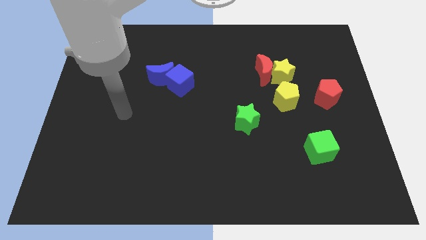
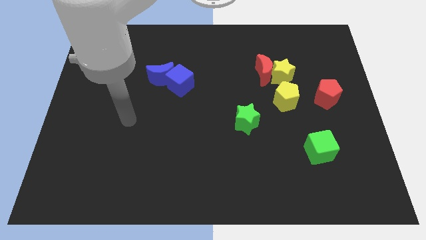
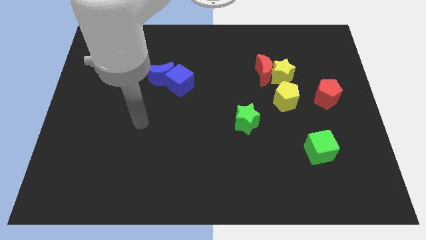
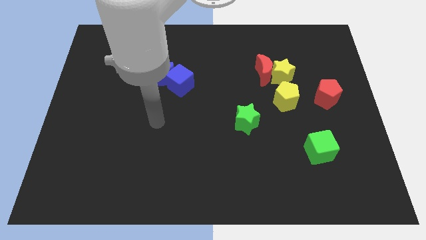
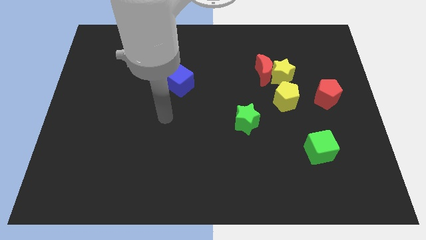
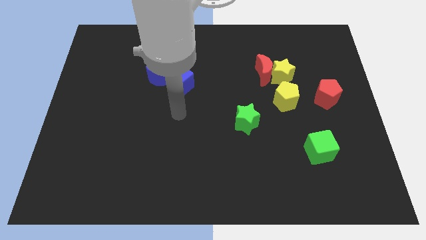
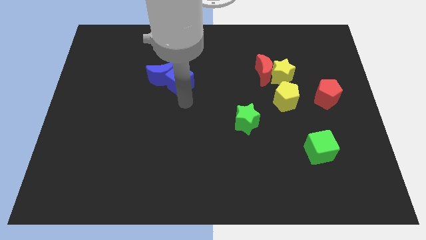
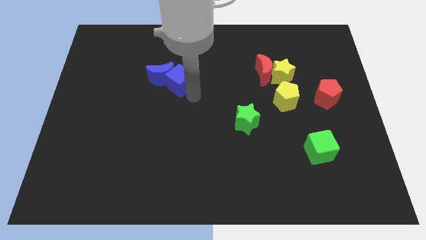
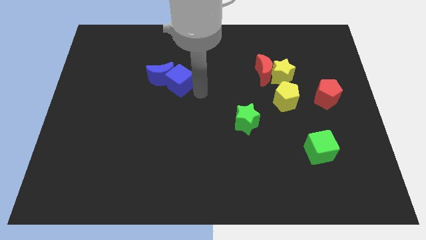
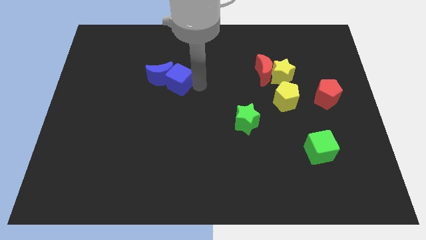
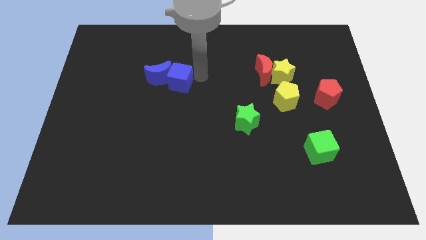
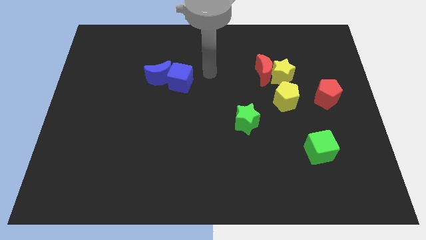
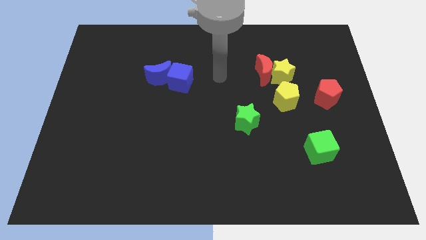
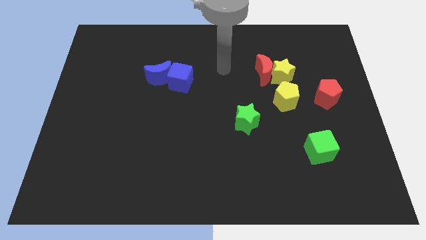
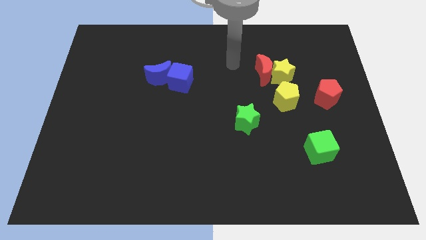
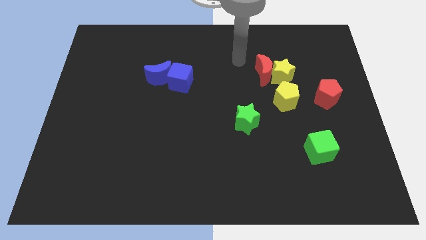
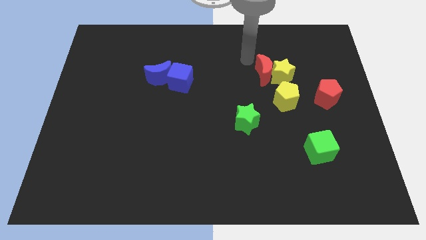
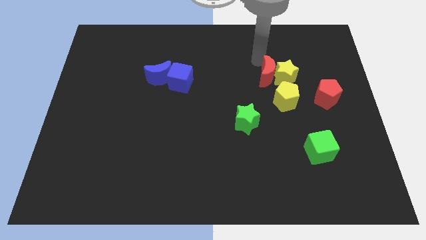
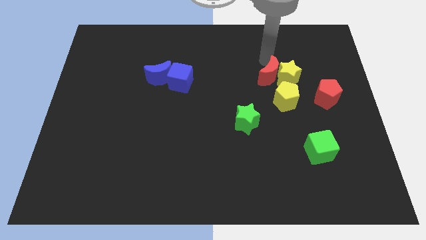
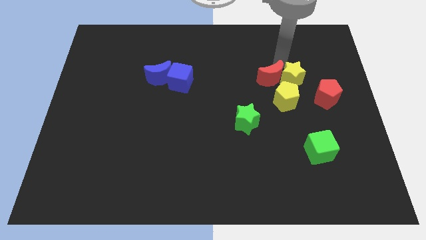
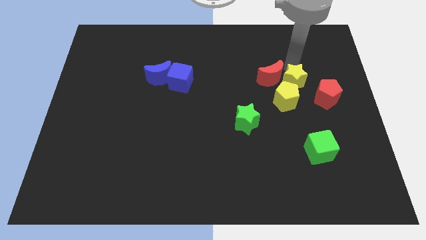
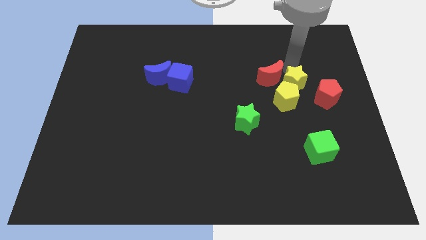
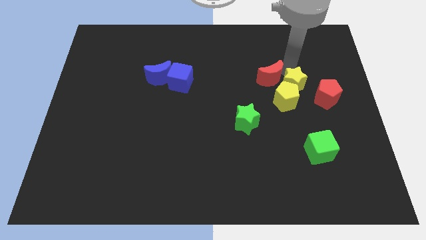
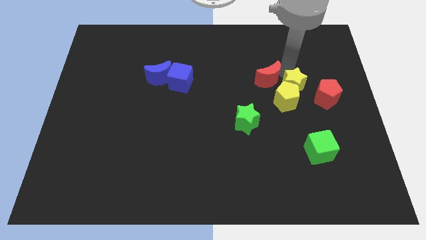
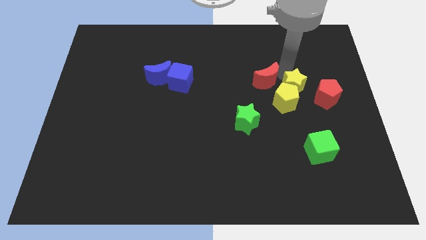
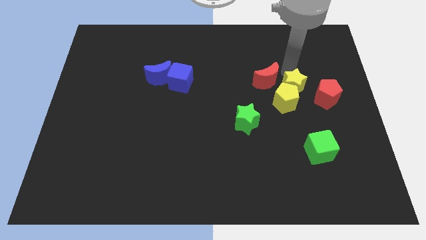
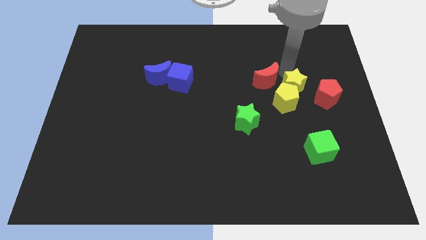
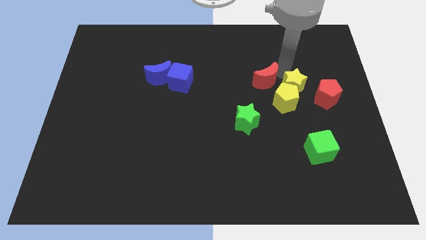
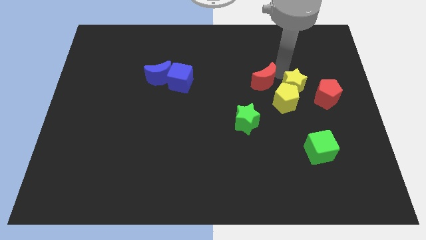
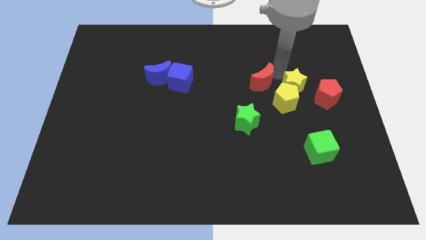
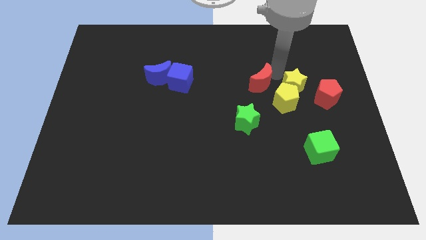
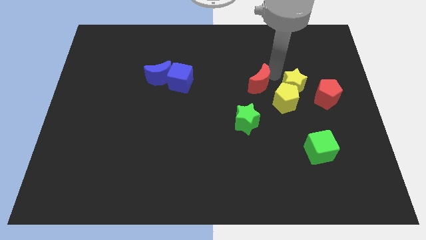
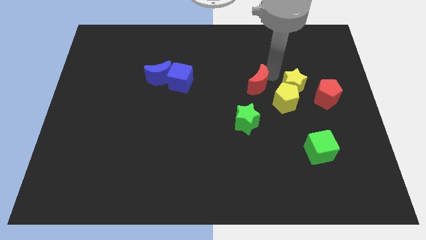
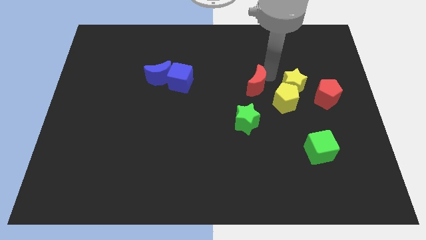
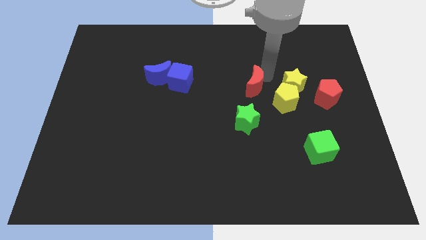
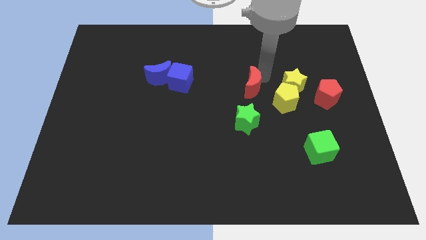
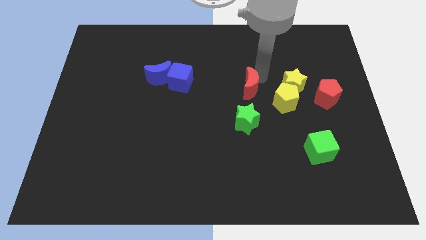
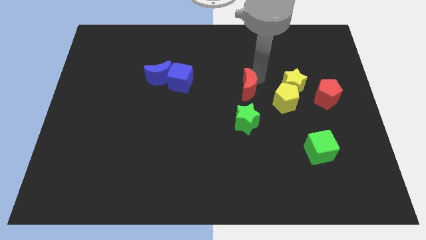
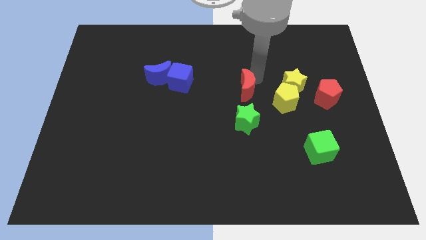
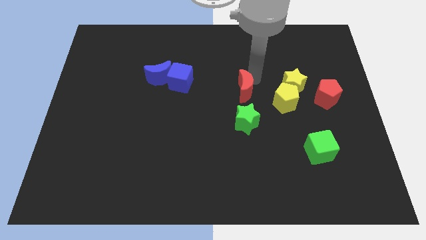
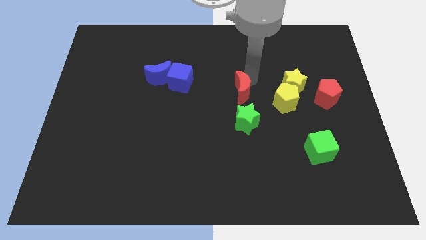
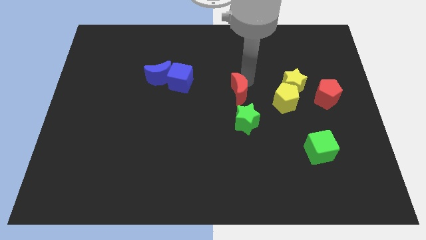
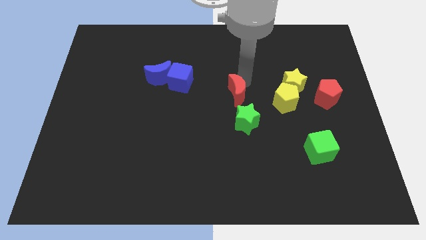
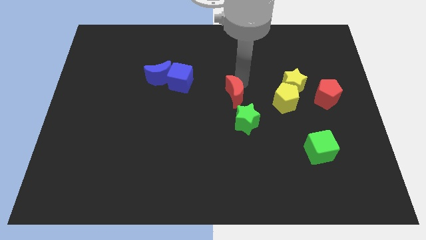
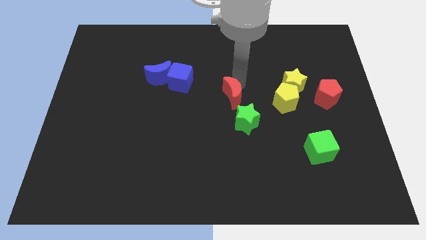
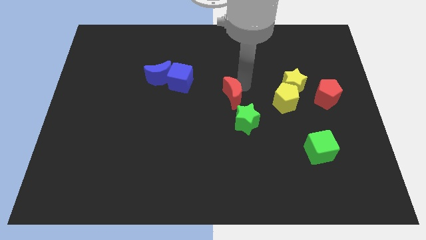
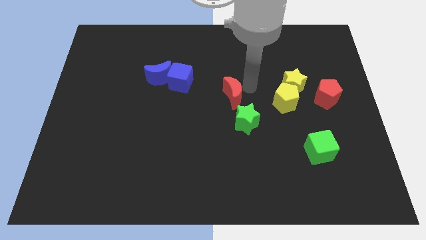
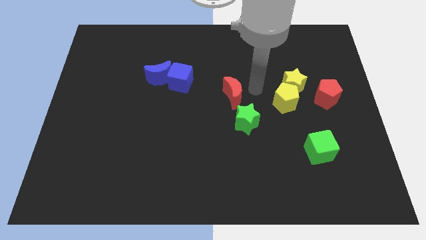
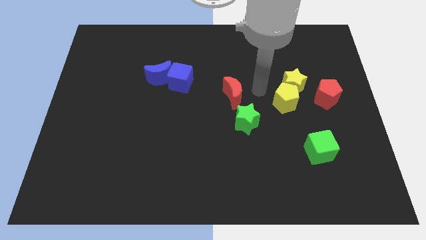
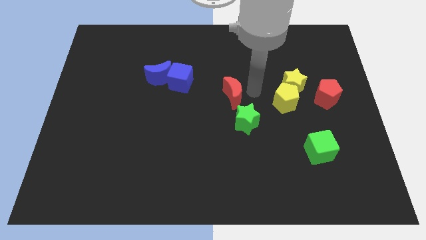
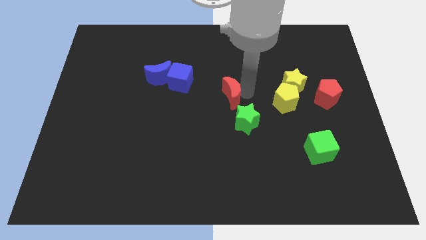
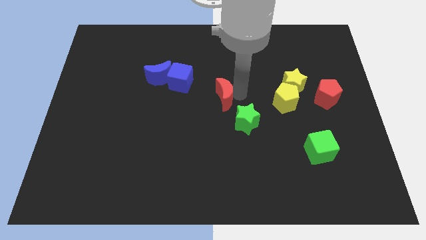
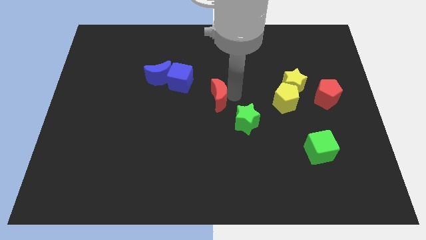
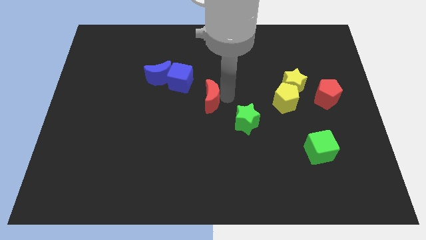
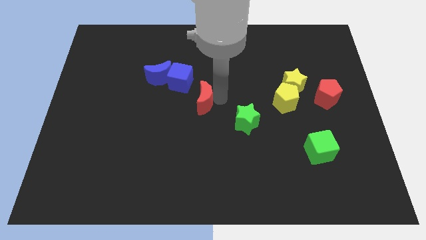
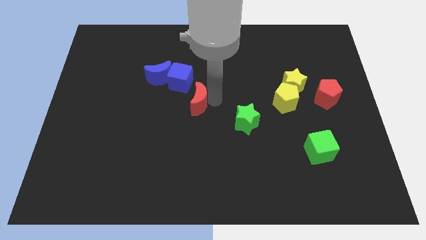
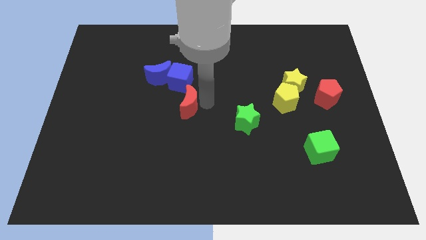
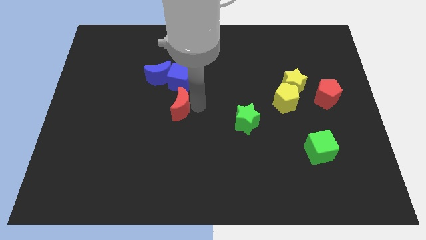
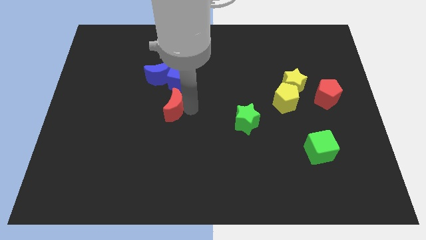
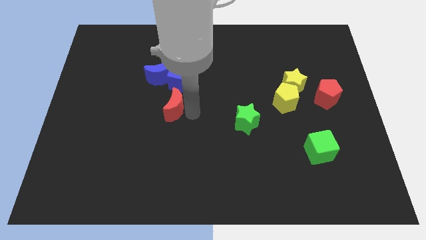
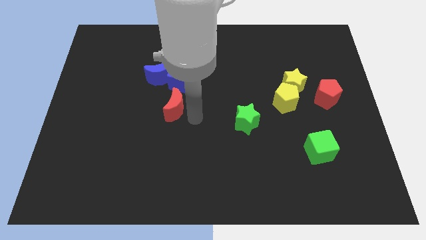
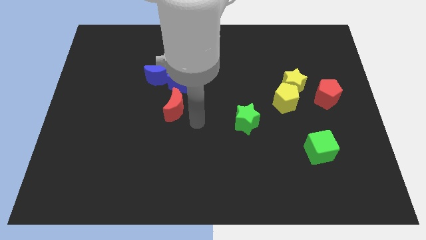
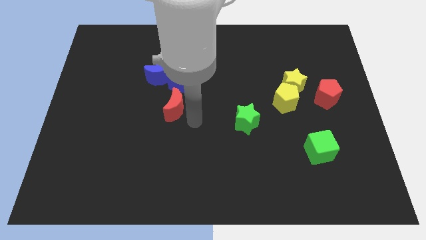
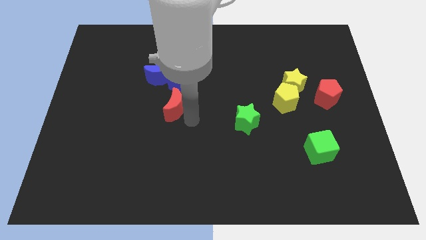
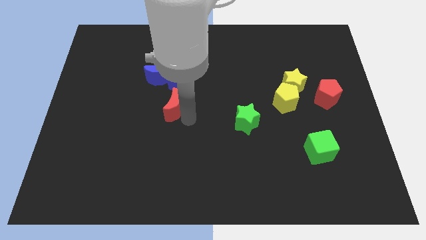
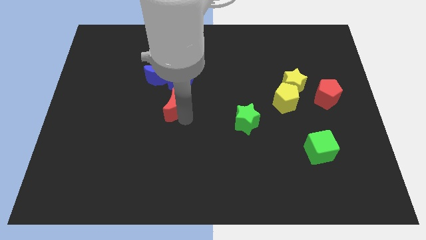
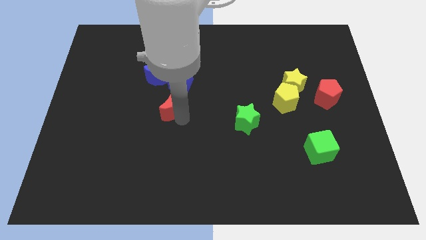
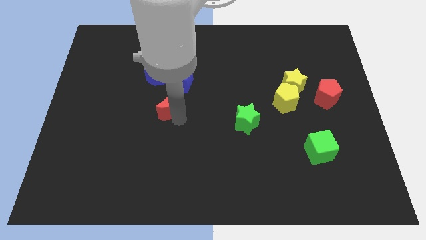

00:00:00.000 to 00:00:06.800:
push the red moon to the bottom left side of the blue cube

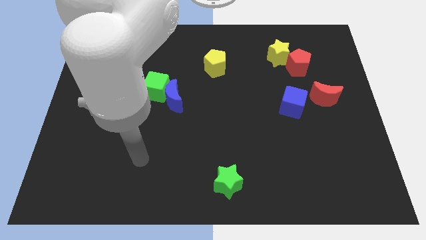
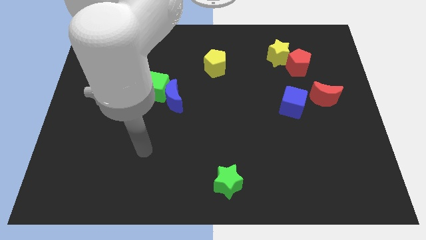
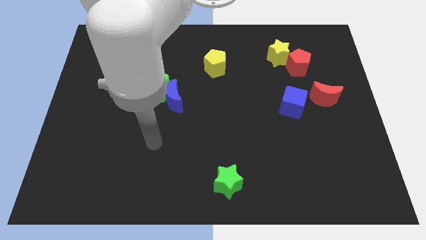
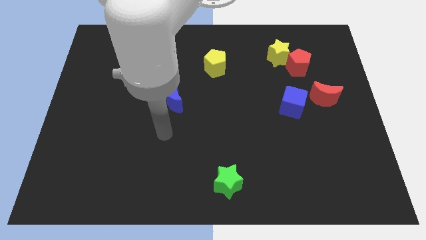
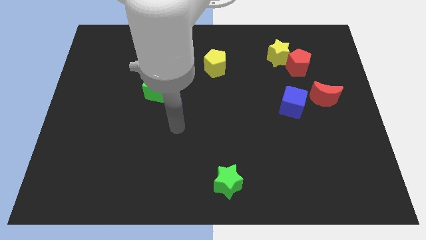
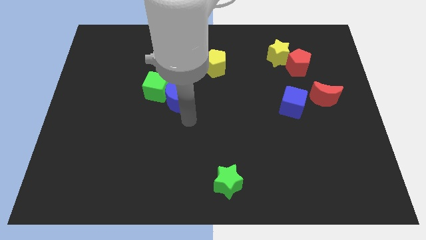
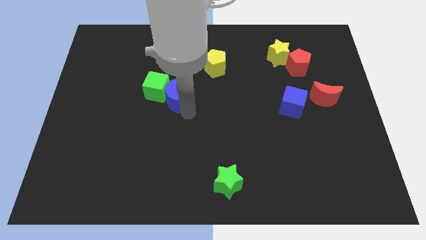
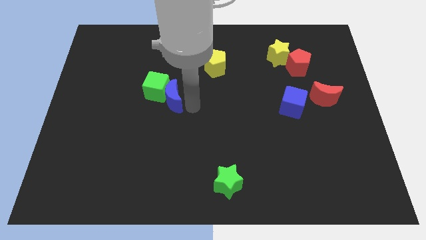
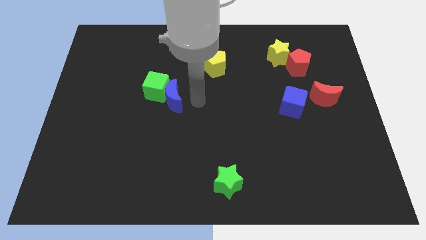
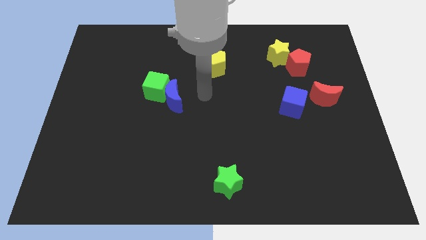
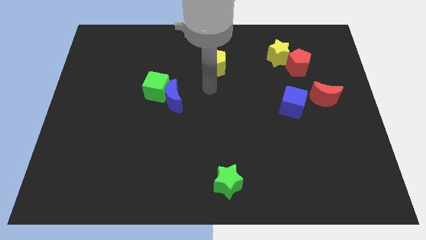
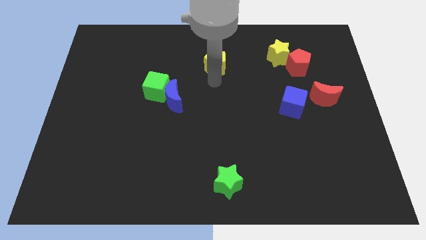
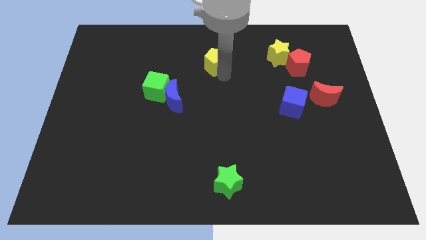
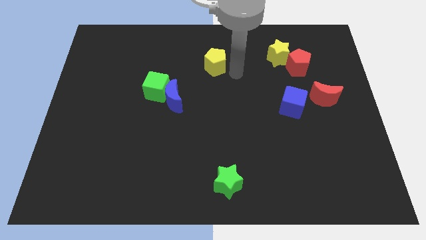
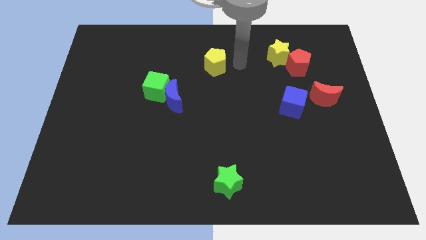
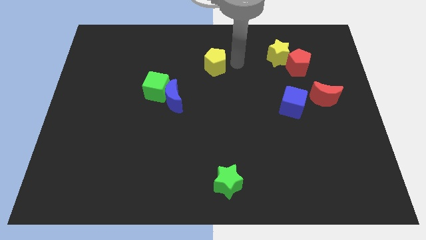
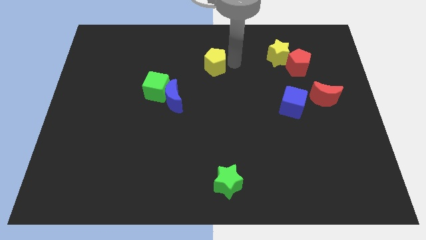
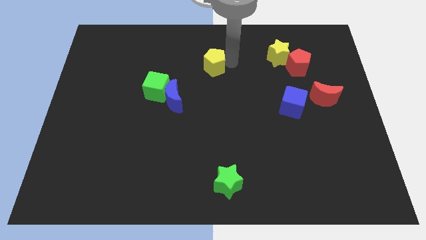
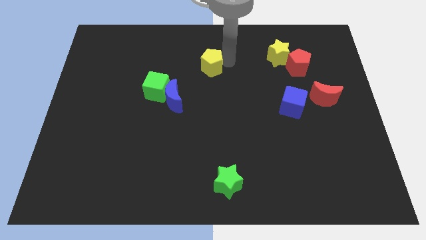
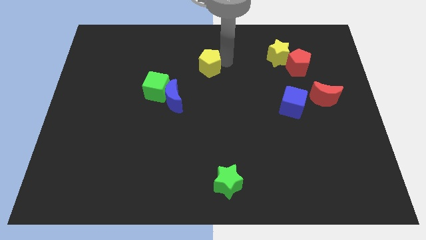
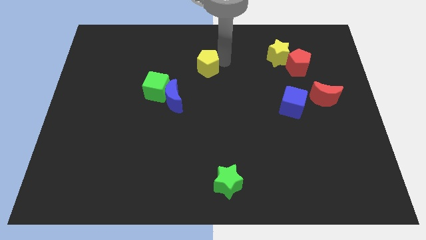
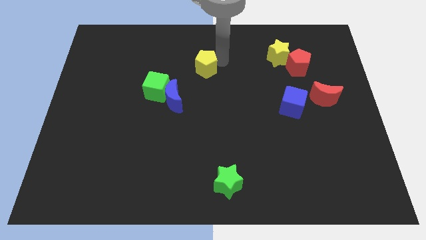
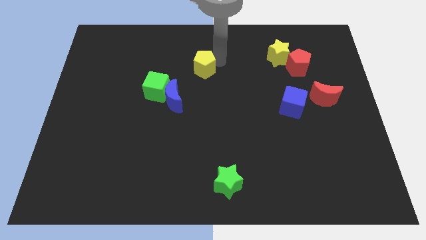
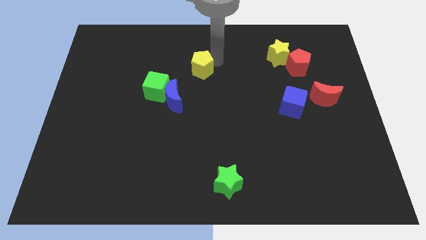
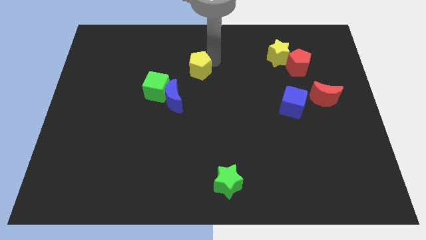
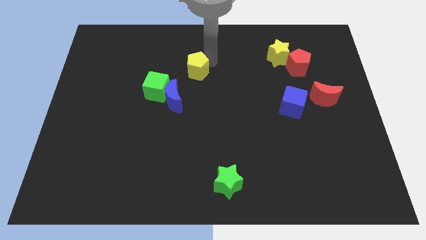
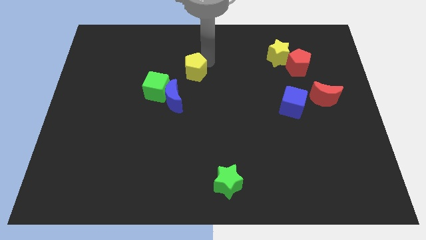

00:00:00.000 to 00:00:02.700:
slide the yellow pentagon to the top side of the blue moon
